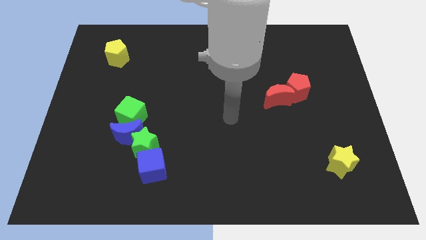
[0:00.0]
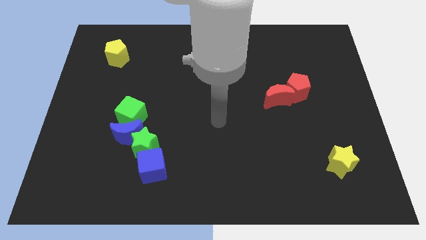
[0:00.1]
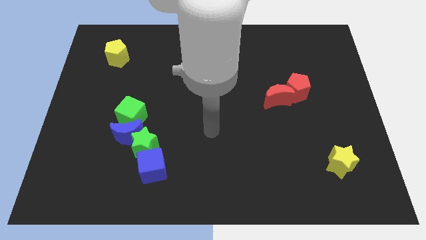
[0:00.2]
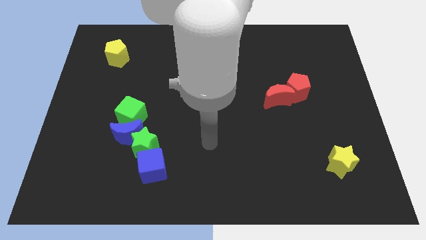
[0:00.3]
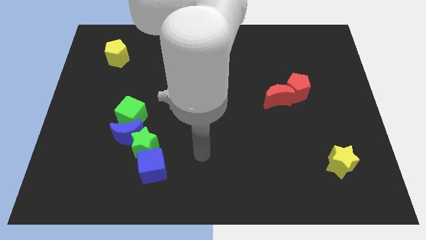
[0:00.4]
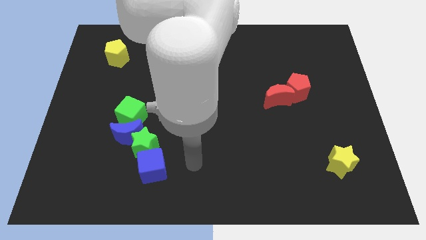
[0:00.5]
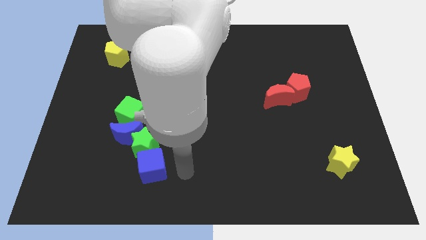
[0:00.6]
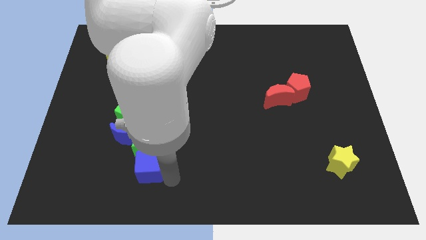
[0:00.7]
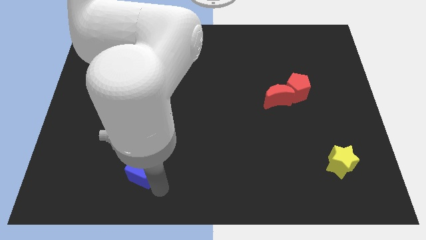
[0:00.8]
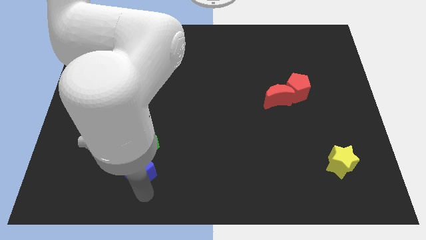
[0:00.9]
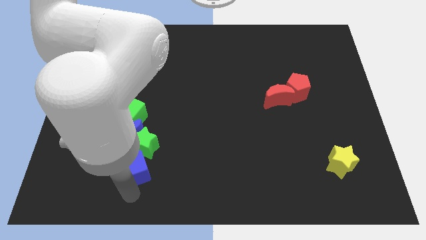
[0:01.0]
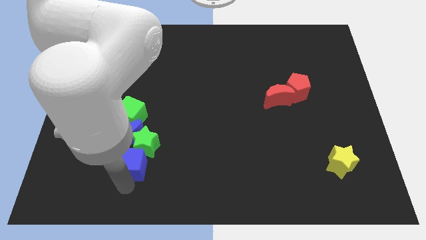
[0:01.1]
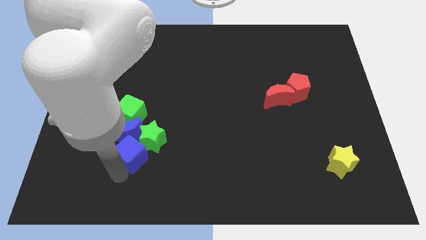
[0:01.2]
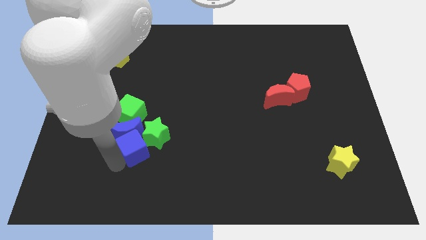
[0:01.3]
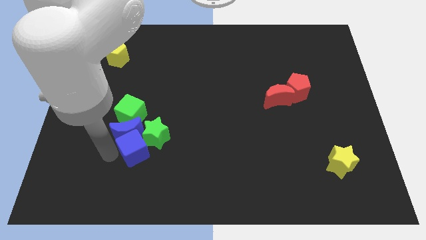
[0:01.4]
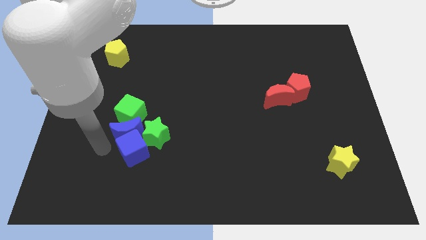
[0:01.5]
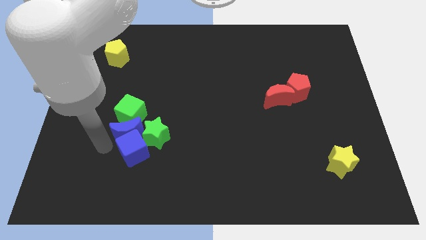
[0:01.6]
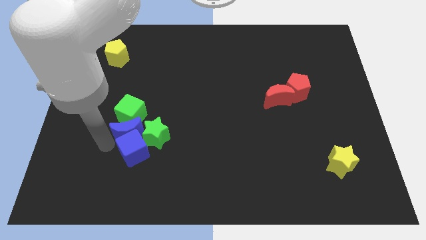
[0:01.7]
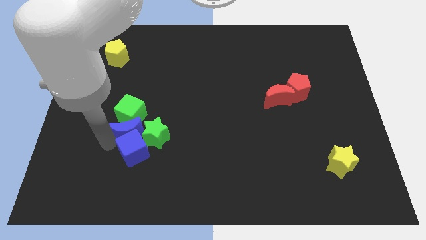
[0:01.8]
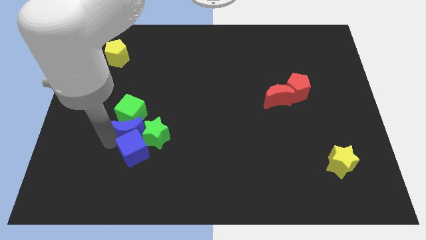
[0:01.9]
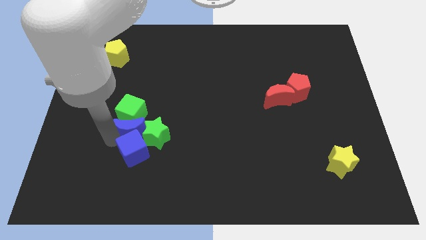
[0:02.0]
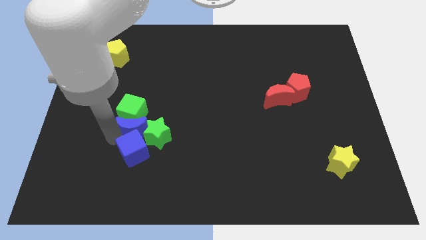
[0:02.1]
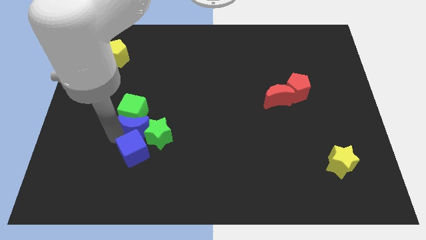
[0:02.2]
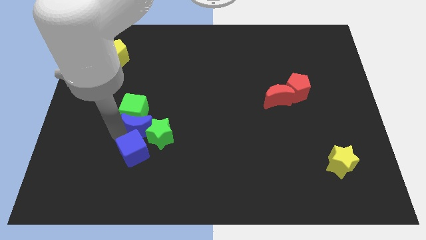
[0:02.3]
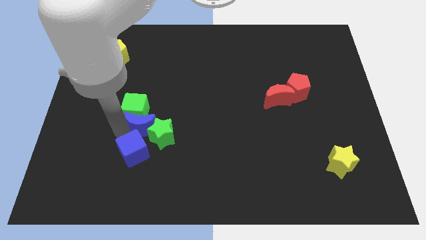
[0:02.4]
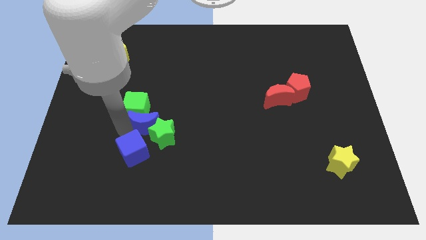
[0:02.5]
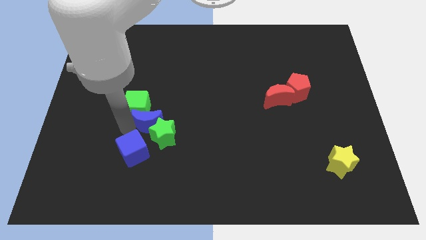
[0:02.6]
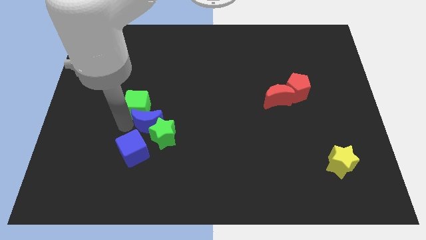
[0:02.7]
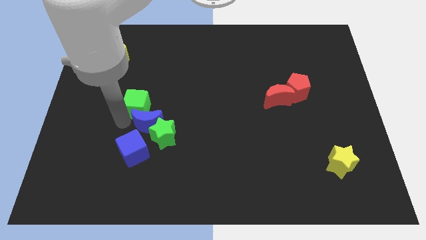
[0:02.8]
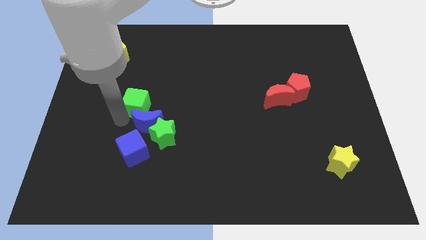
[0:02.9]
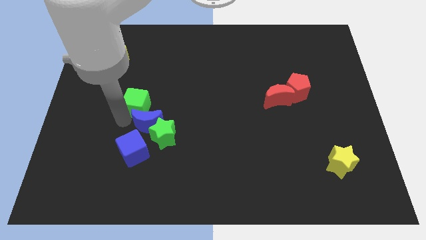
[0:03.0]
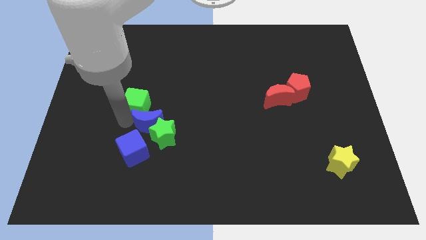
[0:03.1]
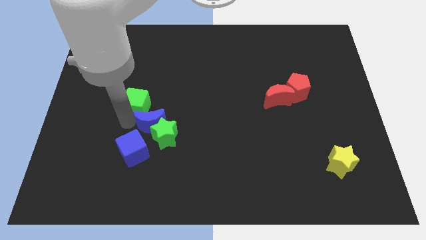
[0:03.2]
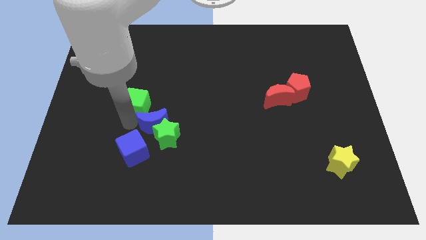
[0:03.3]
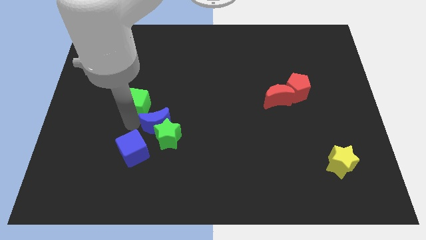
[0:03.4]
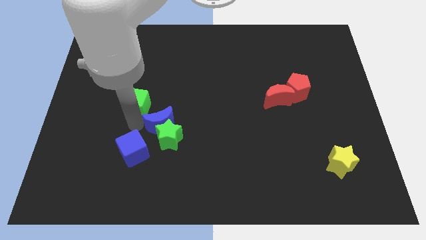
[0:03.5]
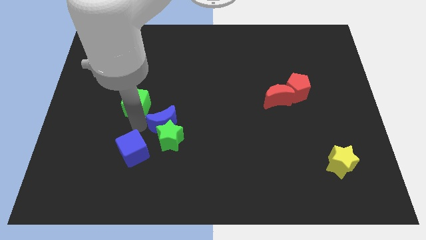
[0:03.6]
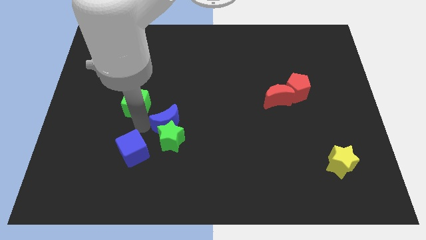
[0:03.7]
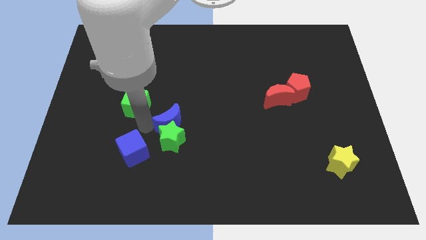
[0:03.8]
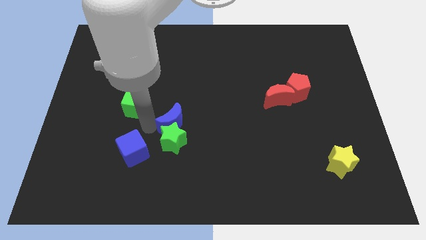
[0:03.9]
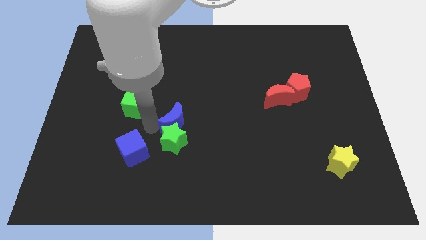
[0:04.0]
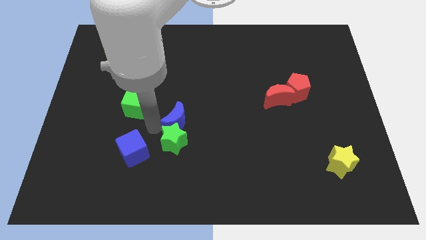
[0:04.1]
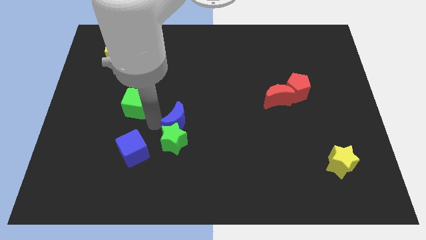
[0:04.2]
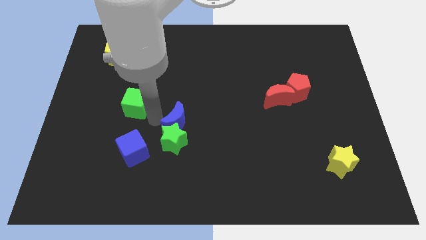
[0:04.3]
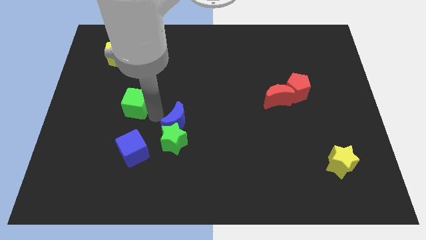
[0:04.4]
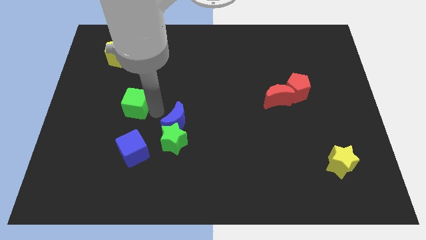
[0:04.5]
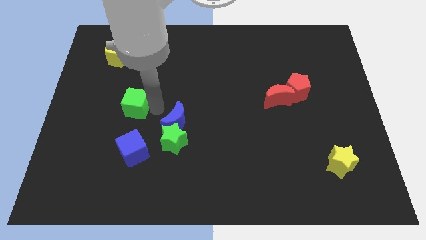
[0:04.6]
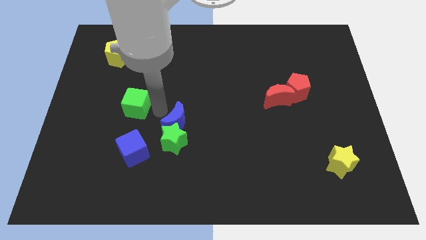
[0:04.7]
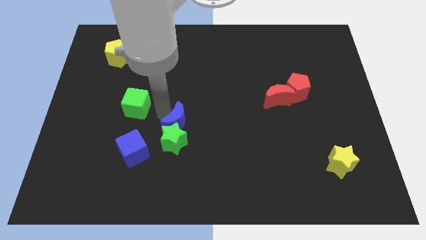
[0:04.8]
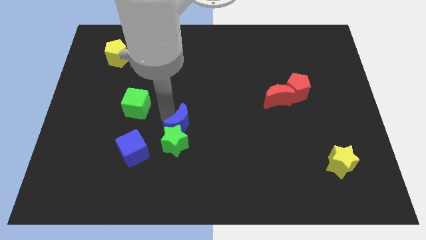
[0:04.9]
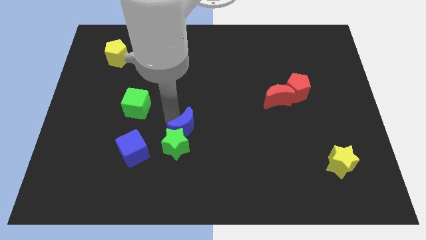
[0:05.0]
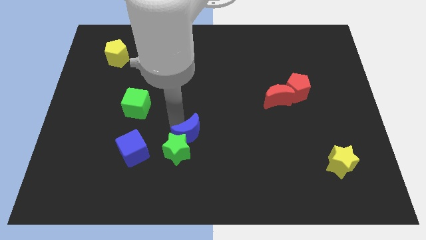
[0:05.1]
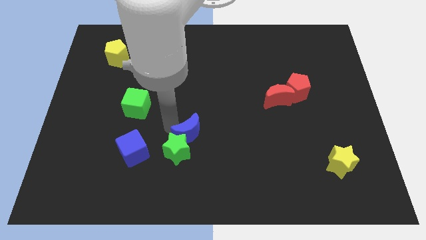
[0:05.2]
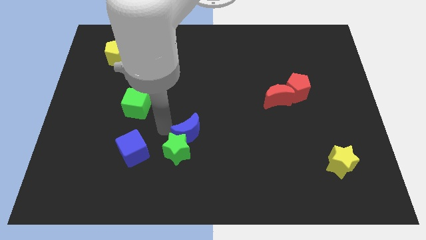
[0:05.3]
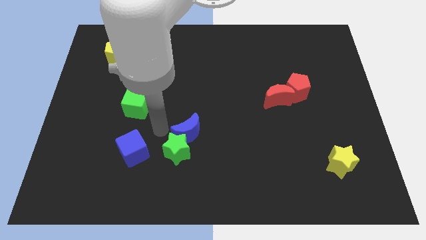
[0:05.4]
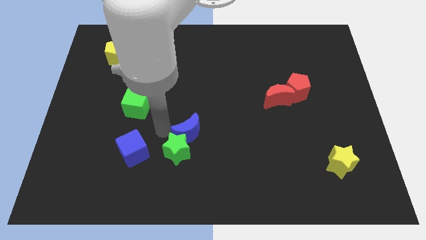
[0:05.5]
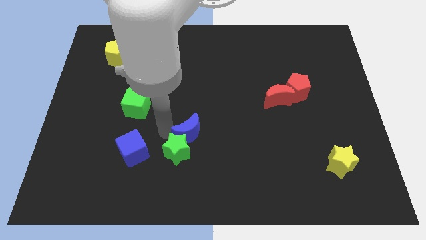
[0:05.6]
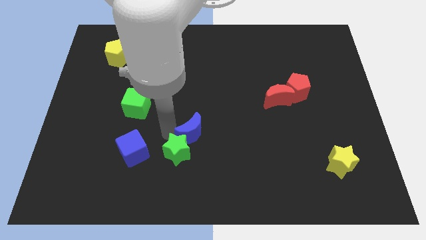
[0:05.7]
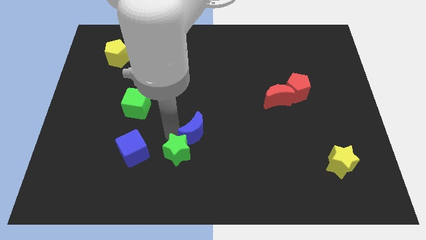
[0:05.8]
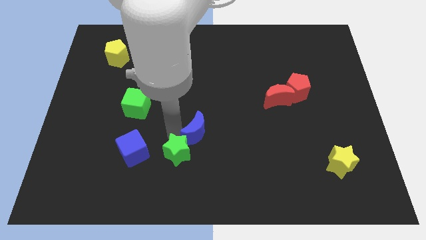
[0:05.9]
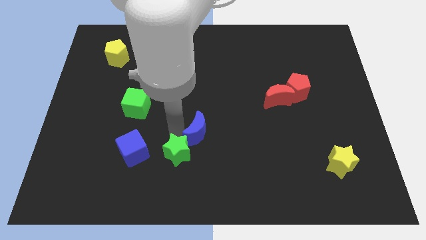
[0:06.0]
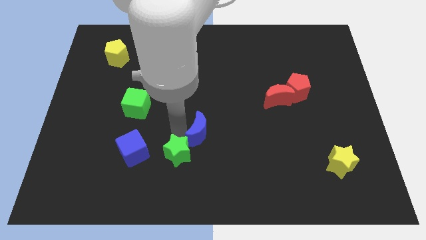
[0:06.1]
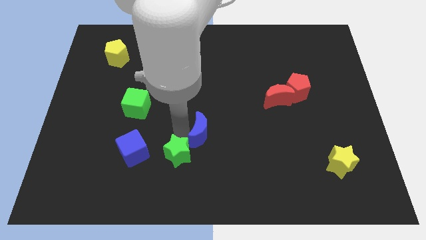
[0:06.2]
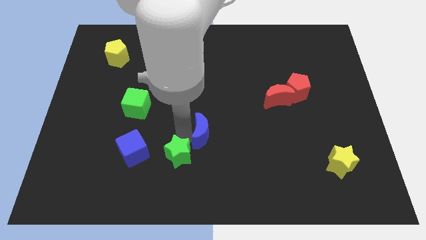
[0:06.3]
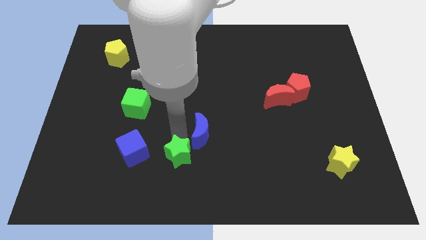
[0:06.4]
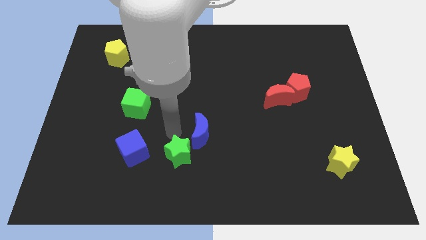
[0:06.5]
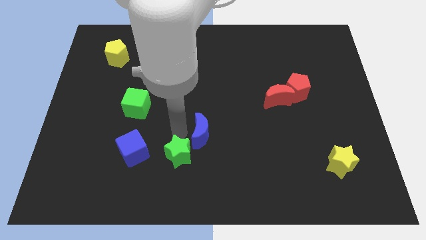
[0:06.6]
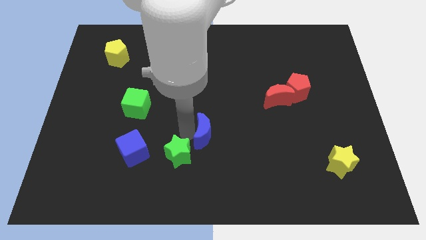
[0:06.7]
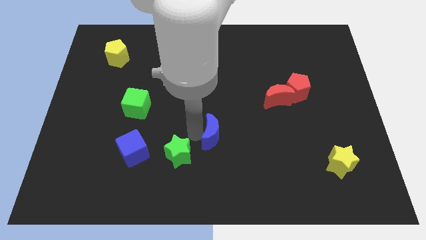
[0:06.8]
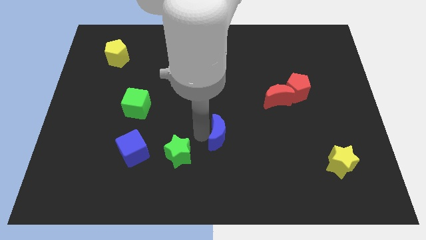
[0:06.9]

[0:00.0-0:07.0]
slide the blue moon to the right

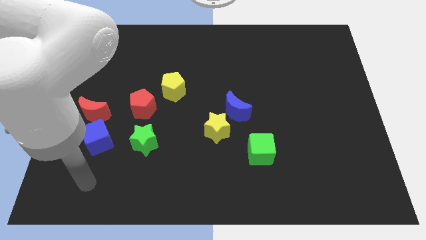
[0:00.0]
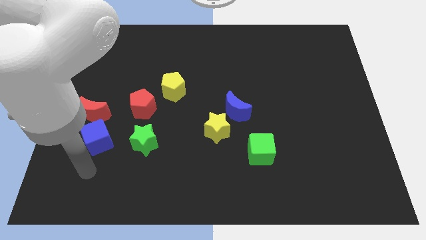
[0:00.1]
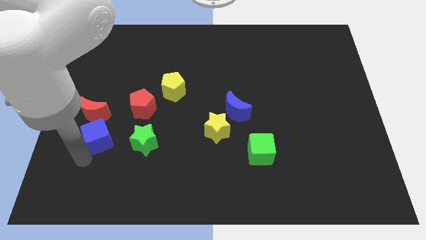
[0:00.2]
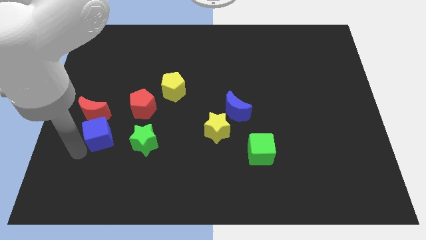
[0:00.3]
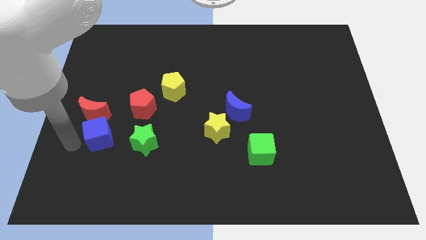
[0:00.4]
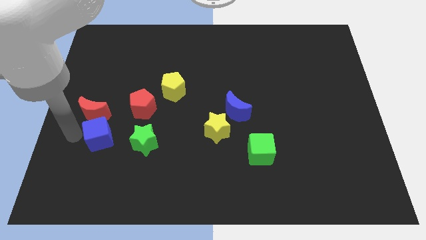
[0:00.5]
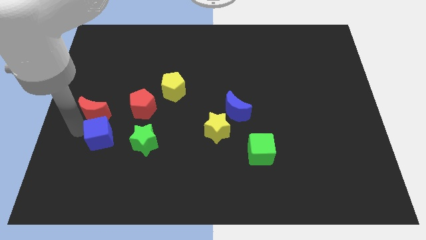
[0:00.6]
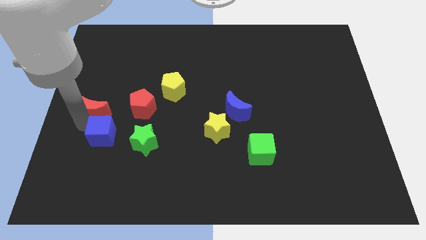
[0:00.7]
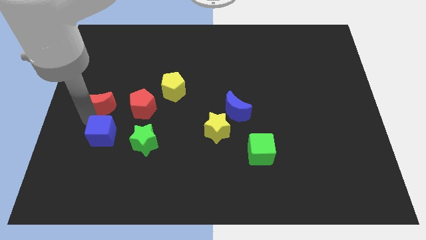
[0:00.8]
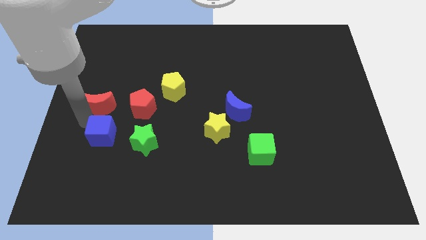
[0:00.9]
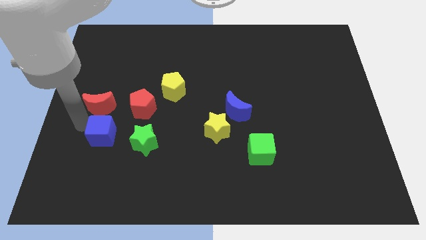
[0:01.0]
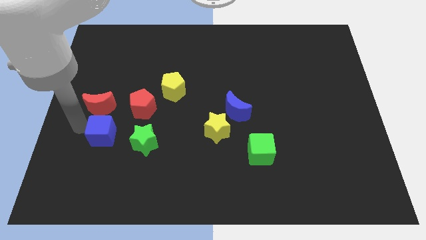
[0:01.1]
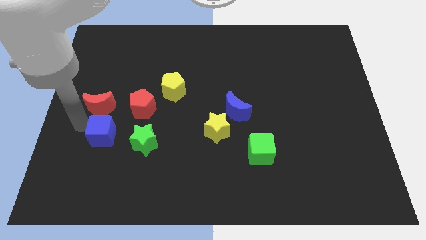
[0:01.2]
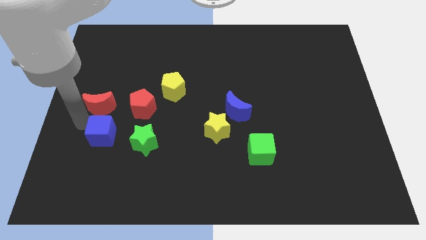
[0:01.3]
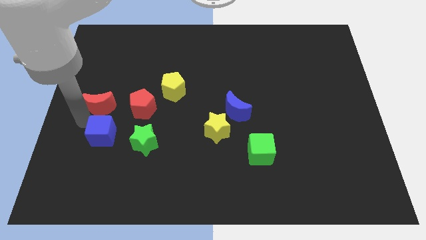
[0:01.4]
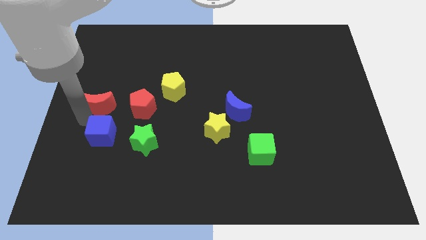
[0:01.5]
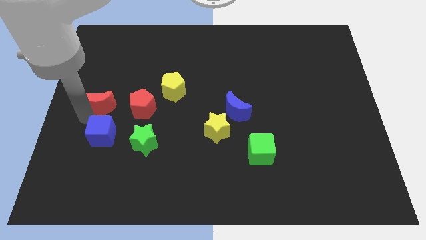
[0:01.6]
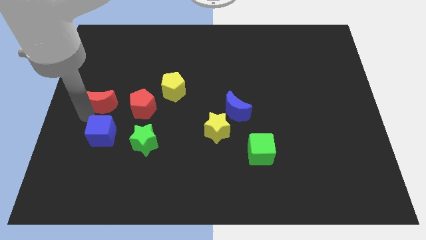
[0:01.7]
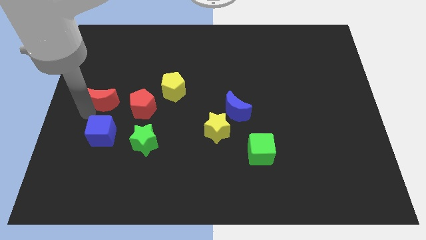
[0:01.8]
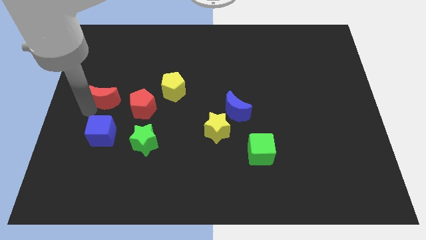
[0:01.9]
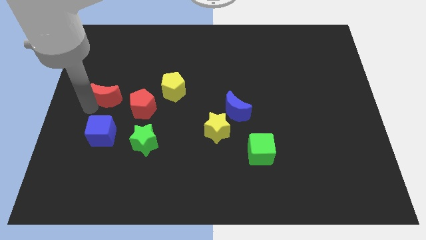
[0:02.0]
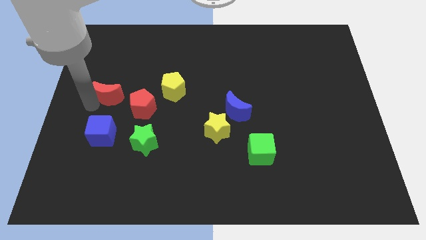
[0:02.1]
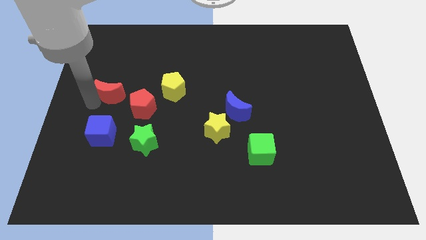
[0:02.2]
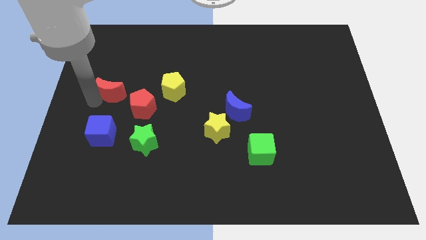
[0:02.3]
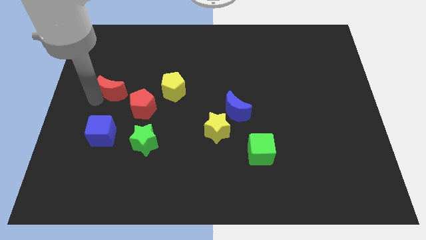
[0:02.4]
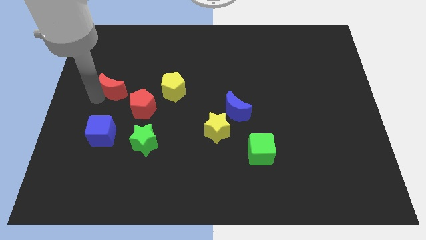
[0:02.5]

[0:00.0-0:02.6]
slightly move the red moon up and to the right
